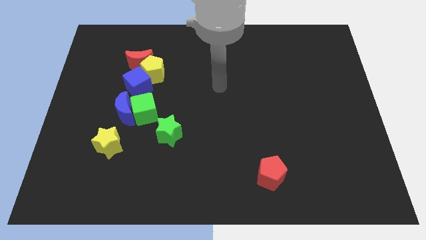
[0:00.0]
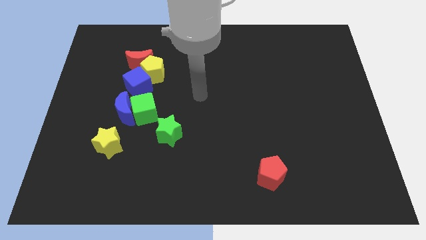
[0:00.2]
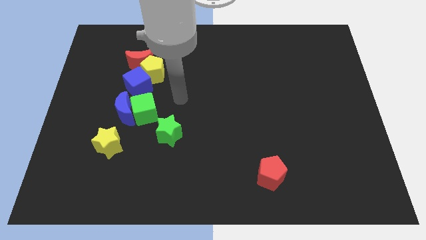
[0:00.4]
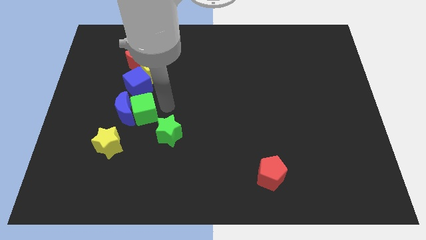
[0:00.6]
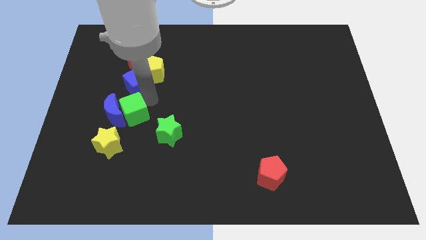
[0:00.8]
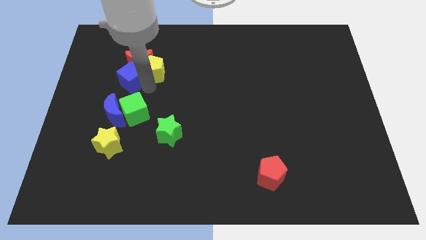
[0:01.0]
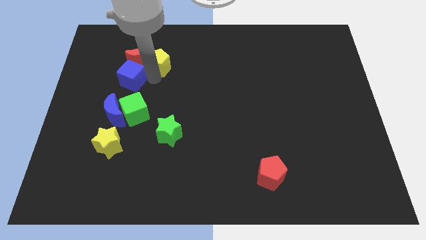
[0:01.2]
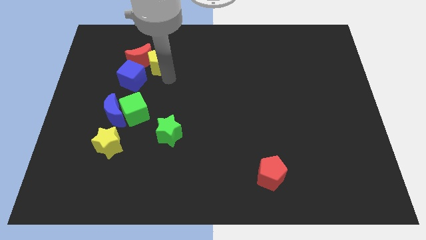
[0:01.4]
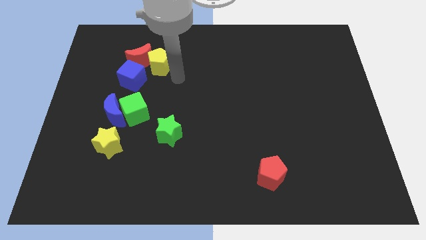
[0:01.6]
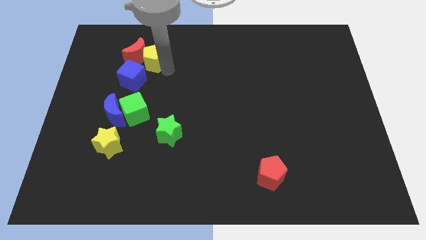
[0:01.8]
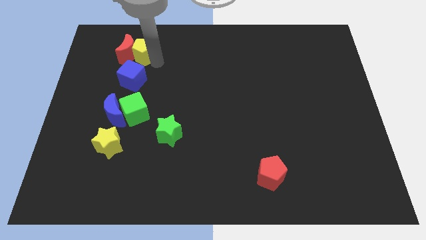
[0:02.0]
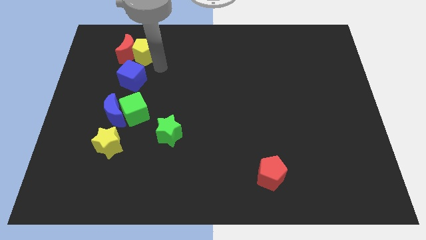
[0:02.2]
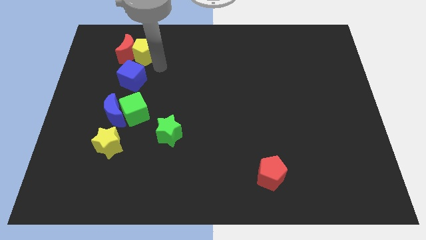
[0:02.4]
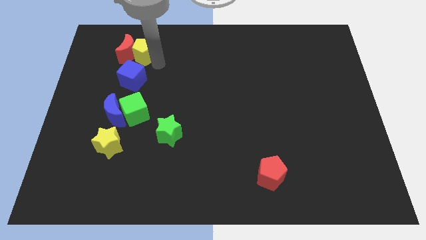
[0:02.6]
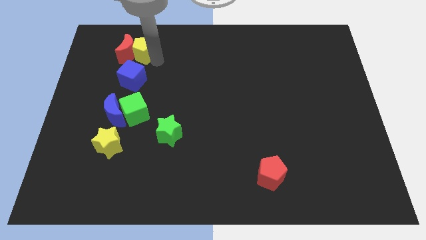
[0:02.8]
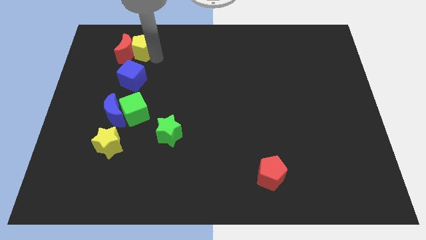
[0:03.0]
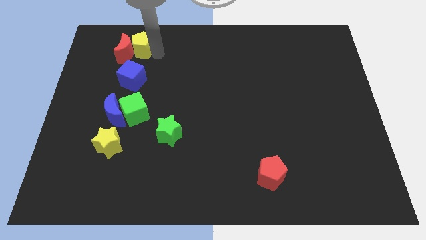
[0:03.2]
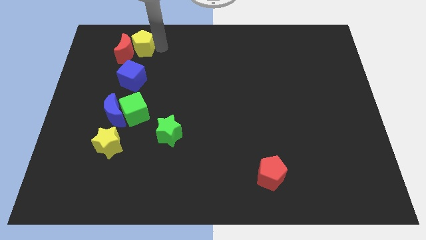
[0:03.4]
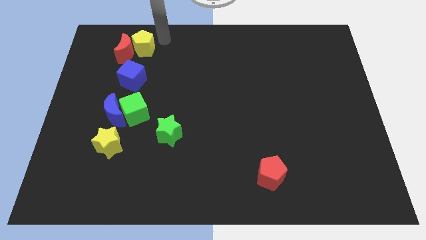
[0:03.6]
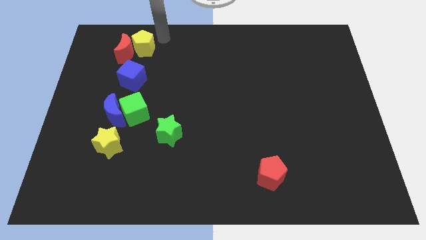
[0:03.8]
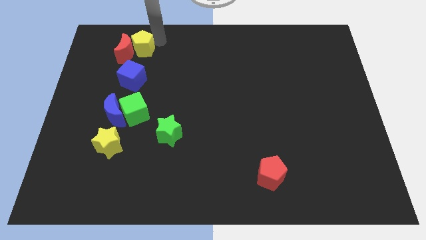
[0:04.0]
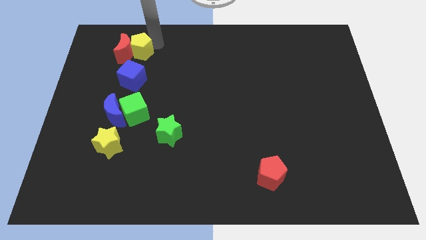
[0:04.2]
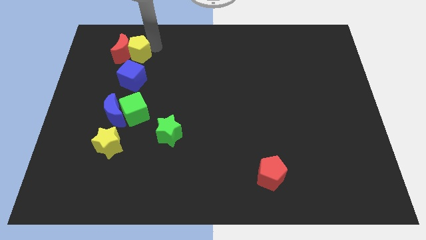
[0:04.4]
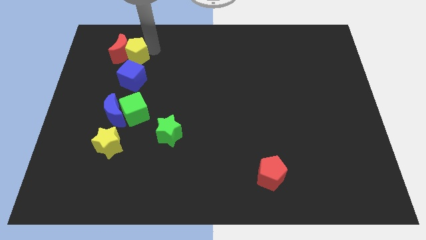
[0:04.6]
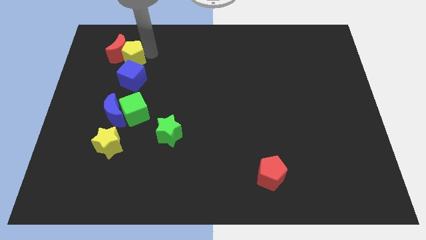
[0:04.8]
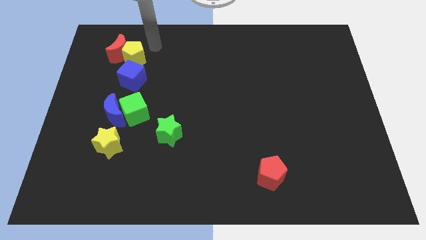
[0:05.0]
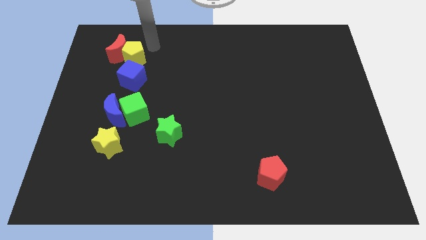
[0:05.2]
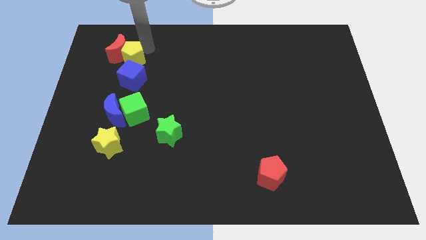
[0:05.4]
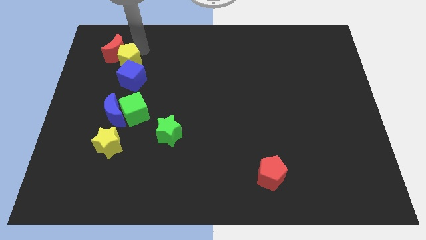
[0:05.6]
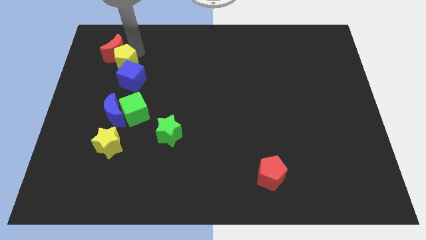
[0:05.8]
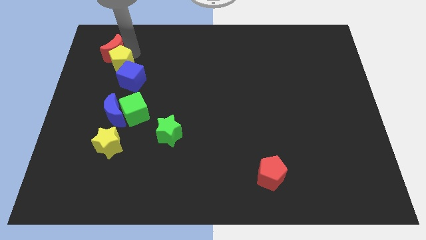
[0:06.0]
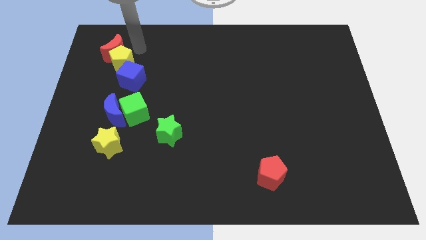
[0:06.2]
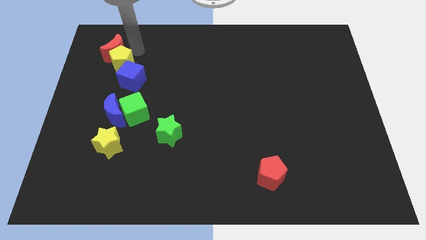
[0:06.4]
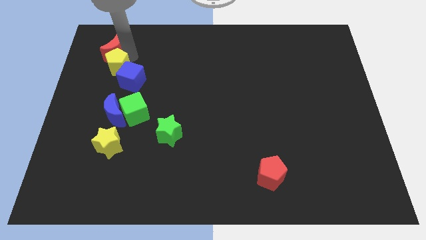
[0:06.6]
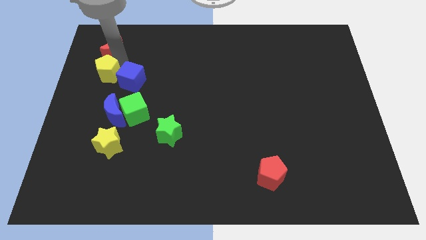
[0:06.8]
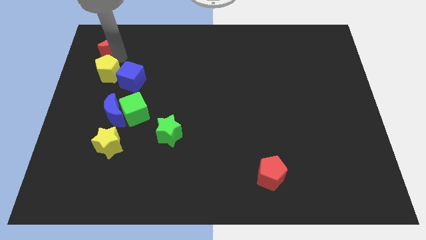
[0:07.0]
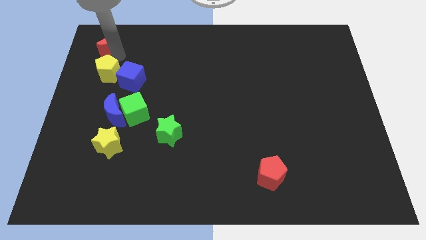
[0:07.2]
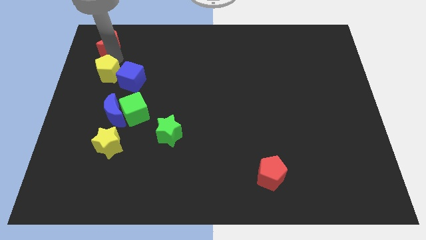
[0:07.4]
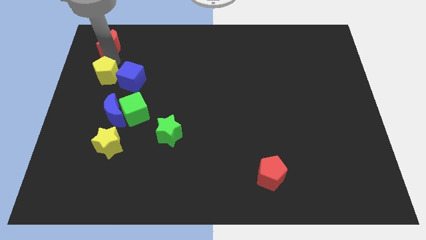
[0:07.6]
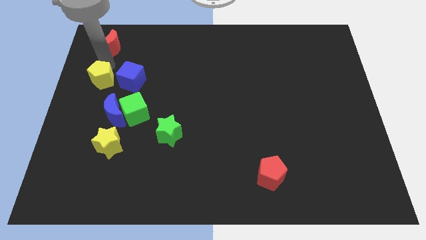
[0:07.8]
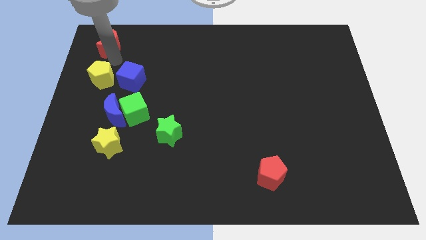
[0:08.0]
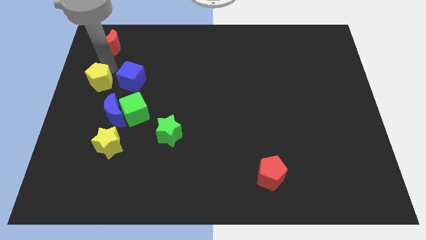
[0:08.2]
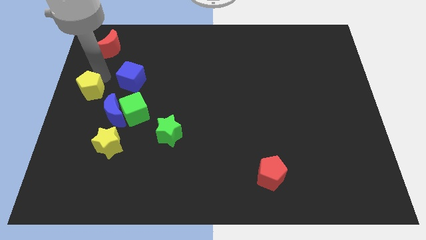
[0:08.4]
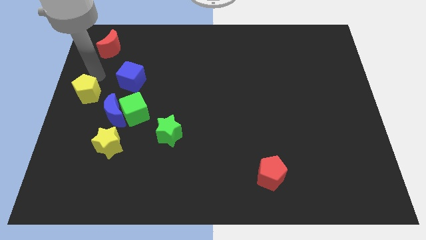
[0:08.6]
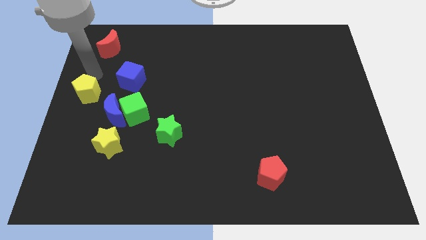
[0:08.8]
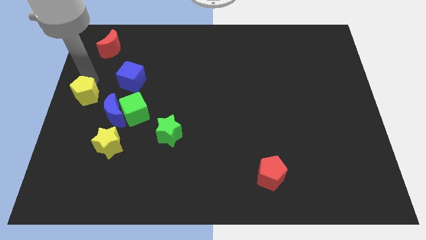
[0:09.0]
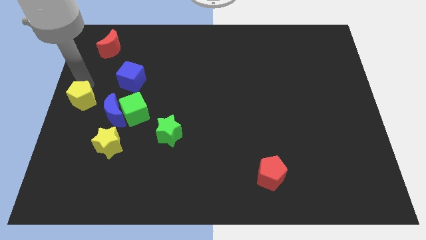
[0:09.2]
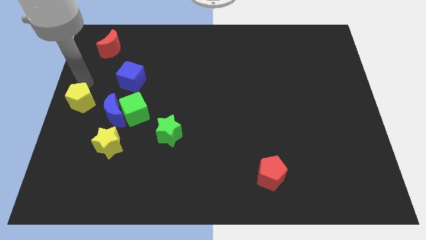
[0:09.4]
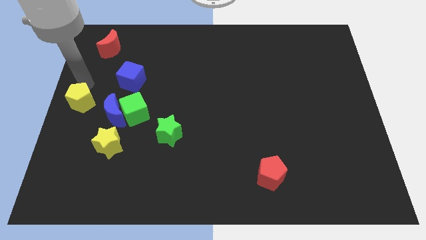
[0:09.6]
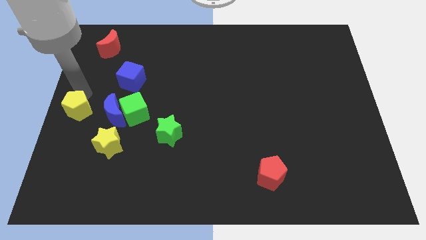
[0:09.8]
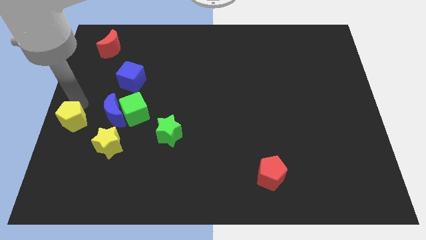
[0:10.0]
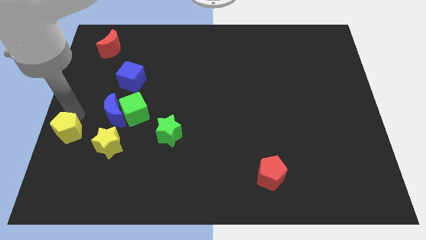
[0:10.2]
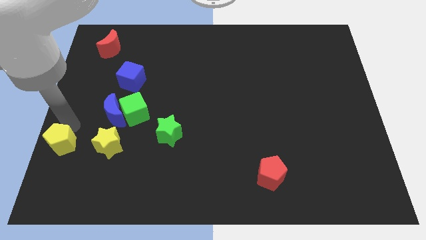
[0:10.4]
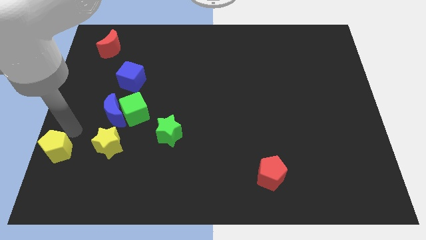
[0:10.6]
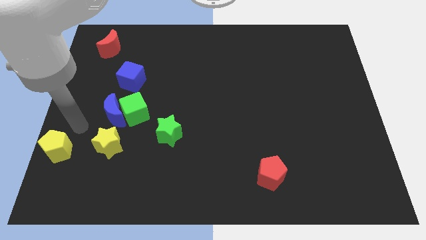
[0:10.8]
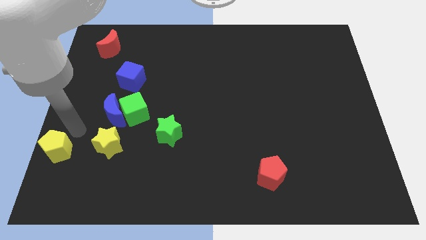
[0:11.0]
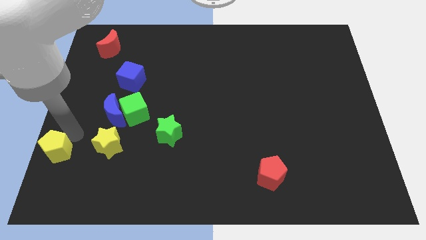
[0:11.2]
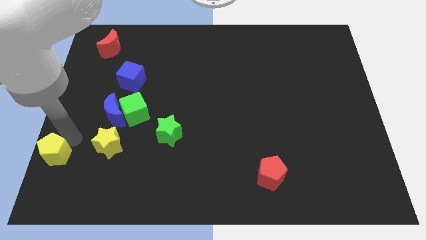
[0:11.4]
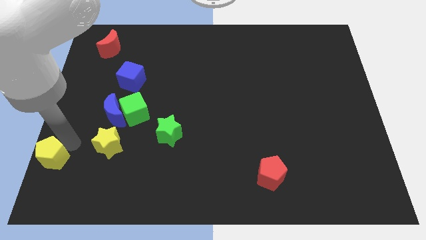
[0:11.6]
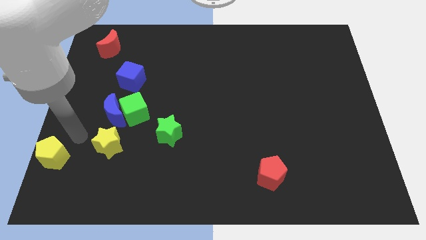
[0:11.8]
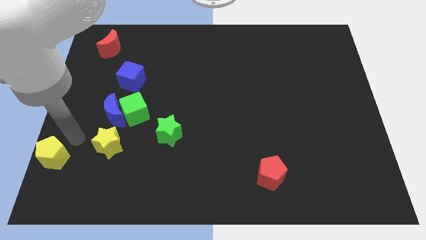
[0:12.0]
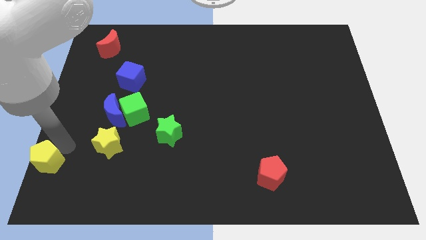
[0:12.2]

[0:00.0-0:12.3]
put the yellow pentagon to the lower left corner
